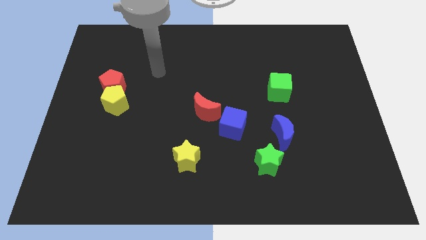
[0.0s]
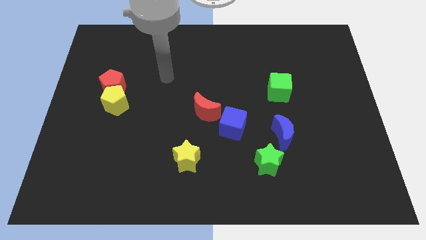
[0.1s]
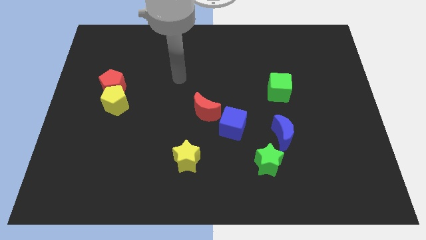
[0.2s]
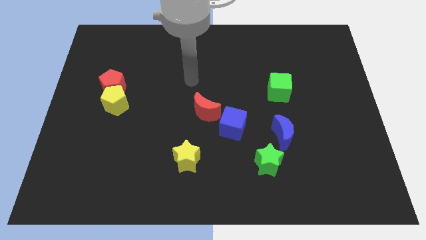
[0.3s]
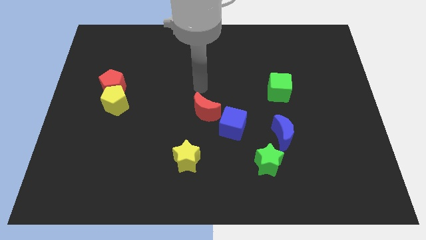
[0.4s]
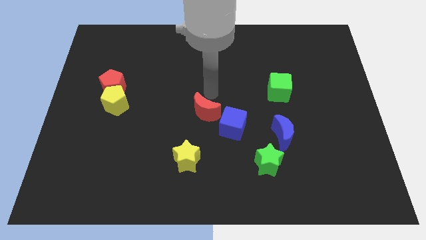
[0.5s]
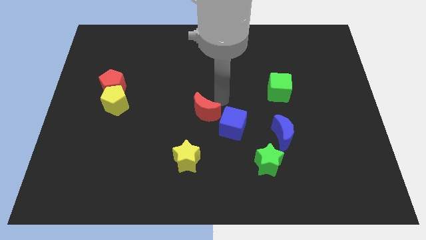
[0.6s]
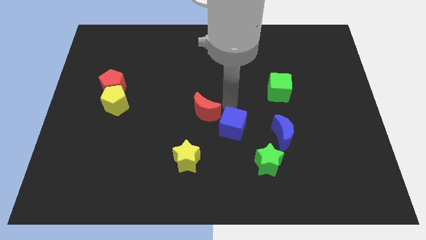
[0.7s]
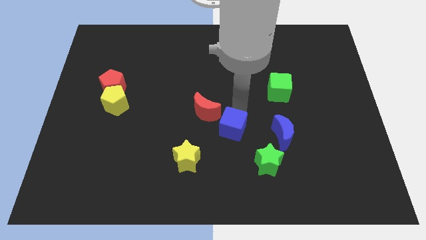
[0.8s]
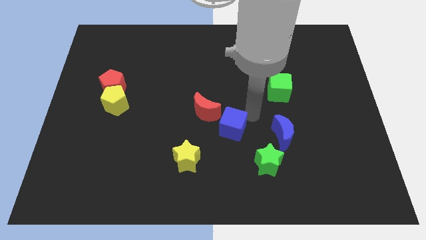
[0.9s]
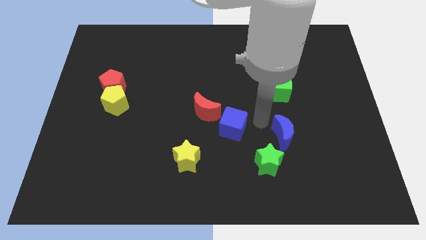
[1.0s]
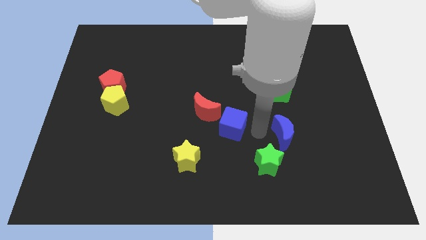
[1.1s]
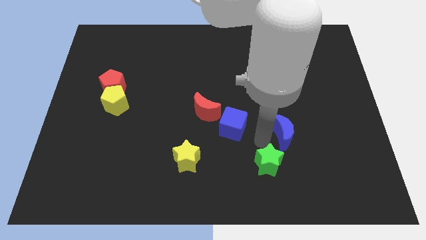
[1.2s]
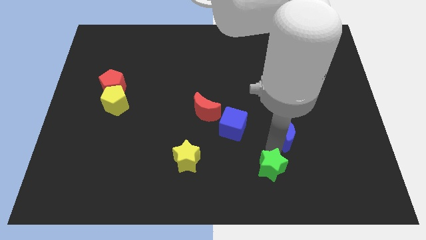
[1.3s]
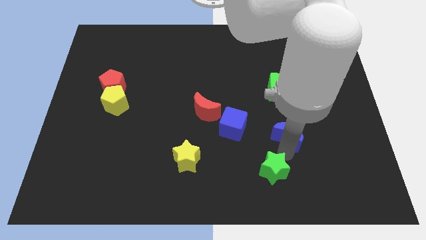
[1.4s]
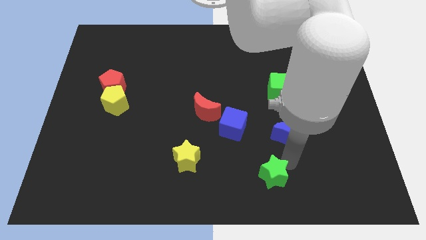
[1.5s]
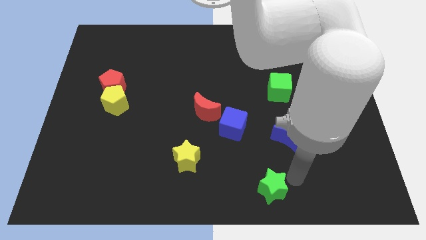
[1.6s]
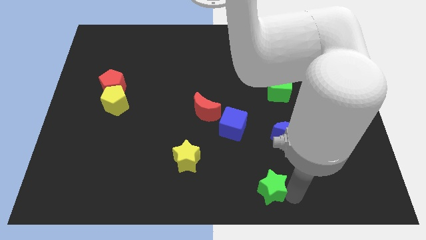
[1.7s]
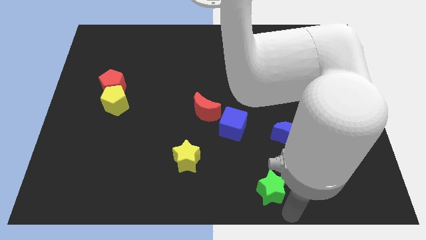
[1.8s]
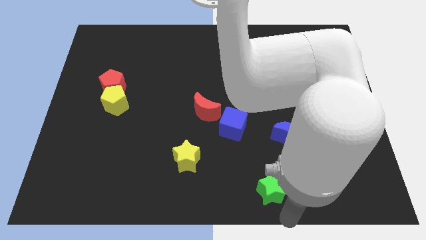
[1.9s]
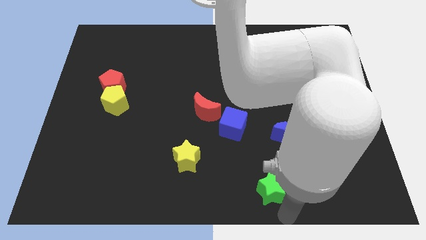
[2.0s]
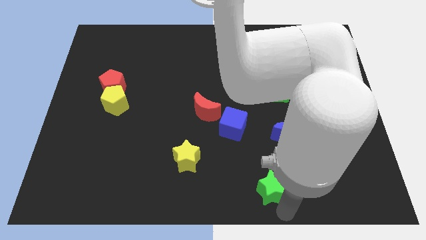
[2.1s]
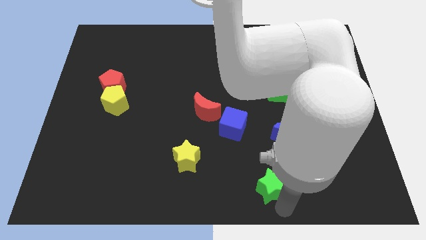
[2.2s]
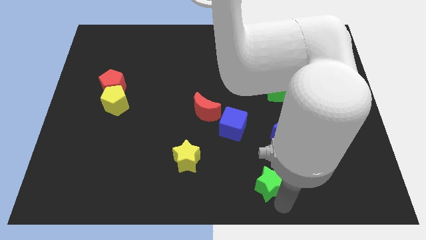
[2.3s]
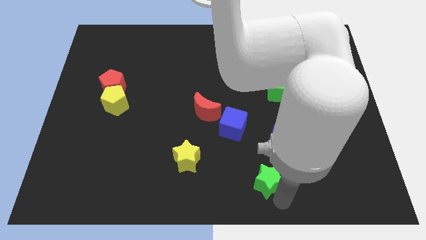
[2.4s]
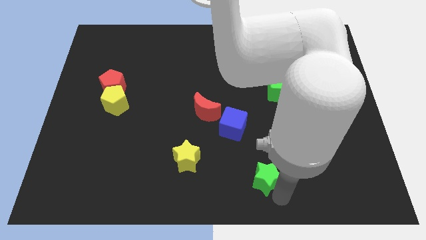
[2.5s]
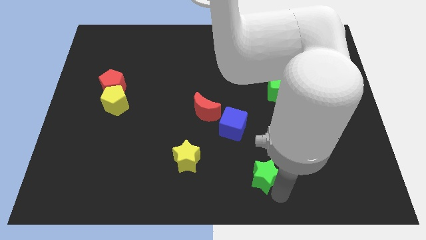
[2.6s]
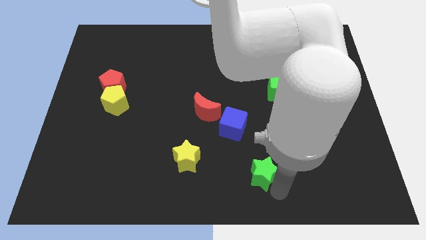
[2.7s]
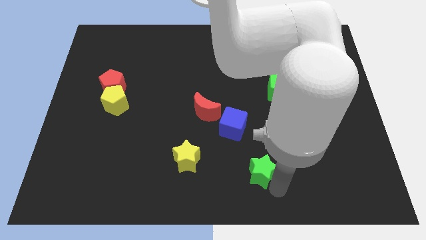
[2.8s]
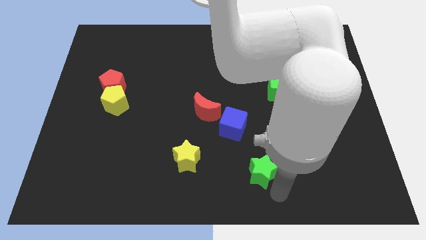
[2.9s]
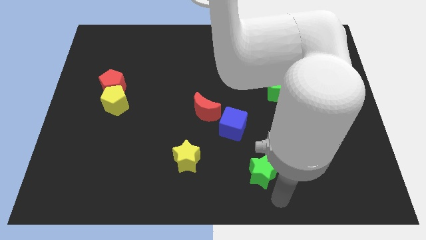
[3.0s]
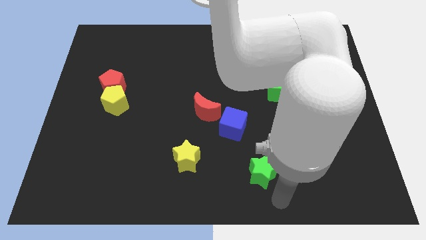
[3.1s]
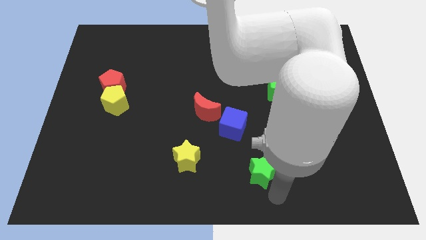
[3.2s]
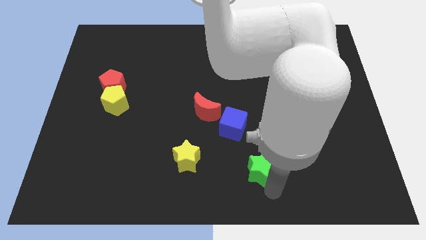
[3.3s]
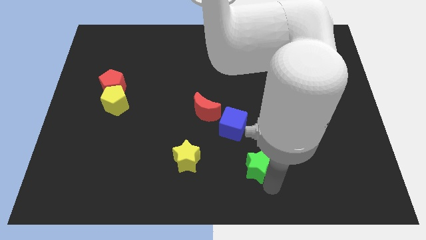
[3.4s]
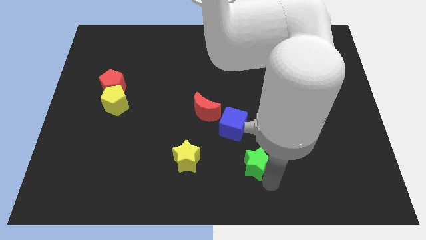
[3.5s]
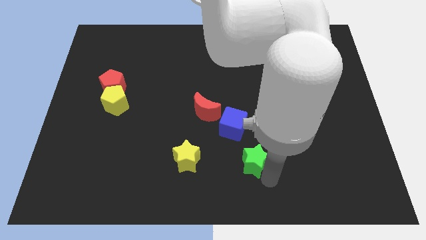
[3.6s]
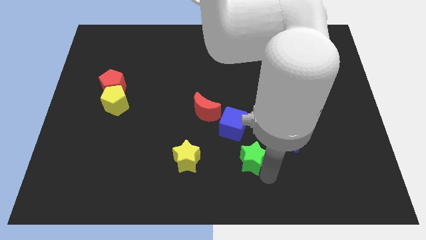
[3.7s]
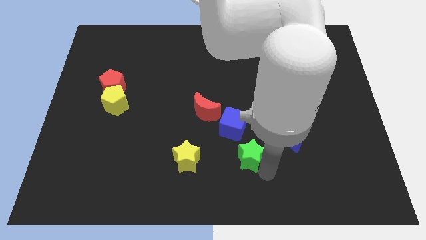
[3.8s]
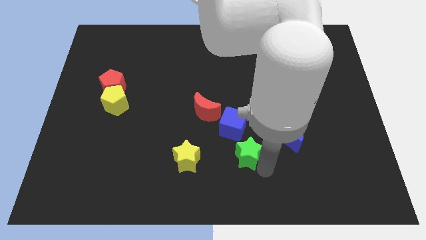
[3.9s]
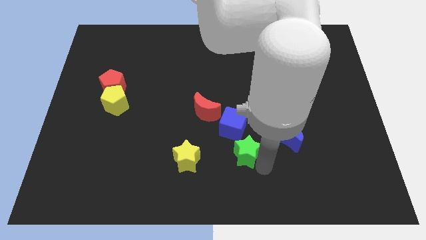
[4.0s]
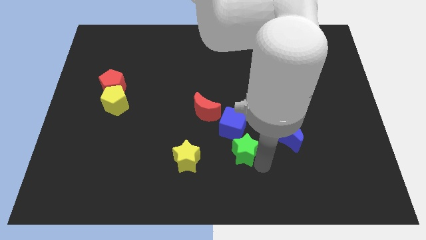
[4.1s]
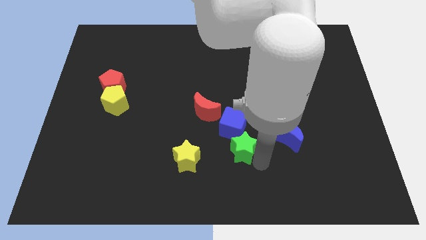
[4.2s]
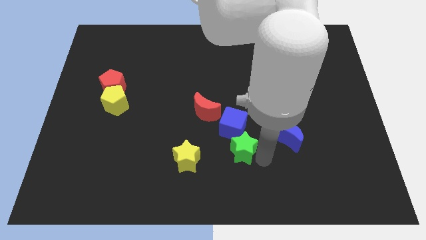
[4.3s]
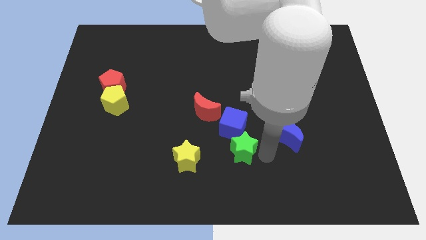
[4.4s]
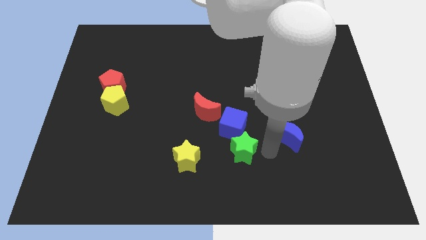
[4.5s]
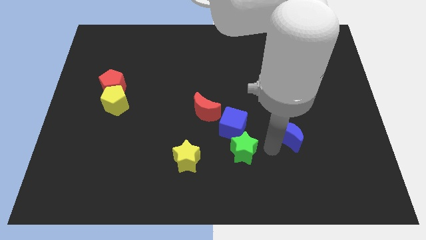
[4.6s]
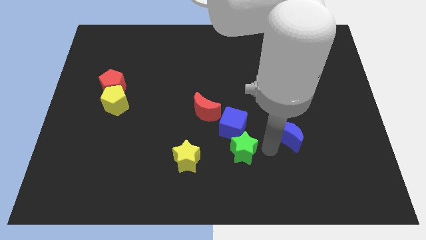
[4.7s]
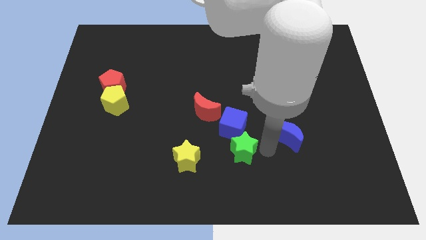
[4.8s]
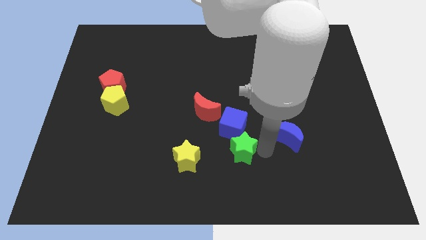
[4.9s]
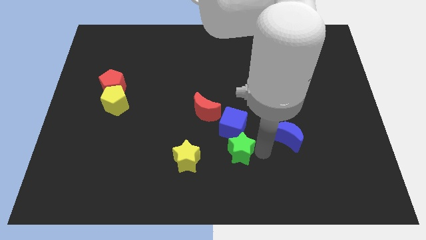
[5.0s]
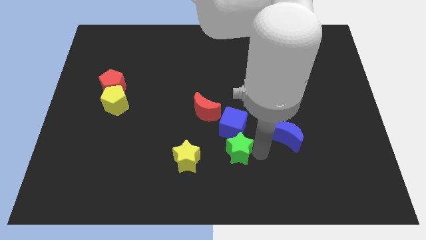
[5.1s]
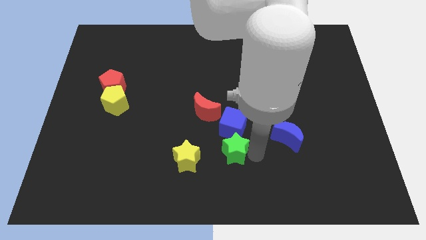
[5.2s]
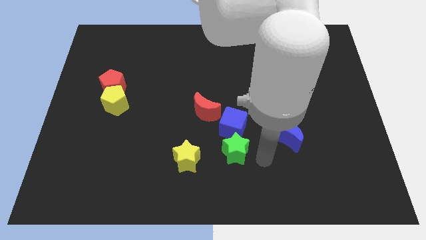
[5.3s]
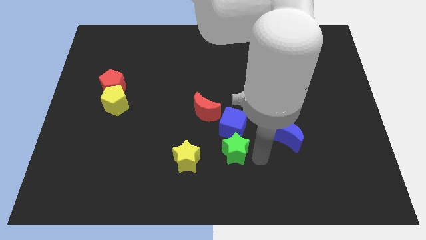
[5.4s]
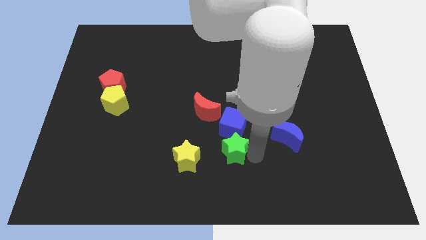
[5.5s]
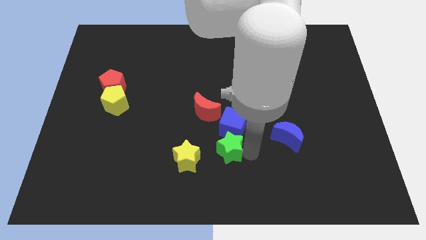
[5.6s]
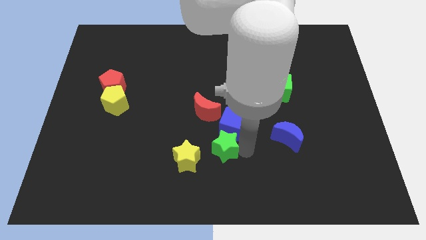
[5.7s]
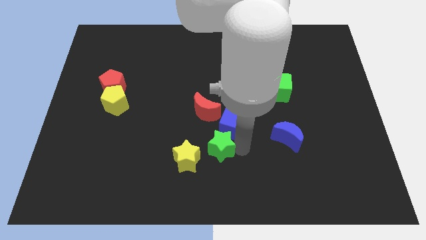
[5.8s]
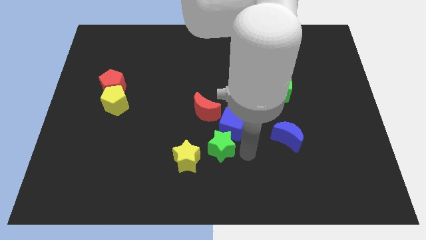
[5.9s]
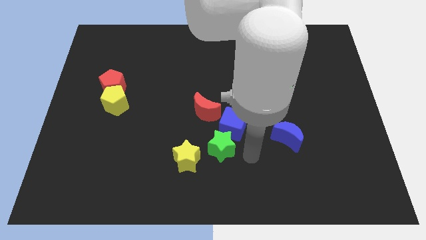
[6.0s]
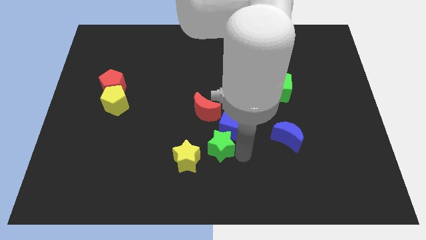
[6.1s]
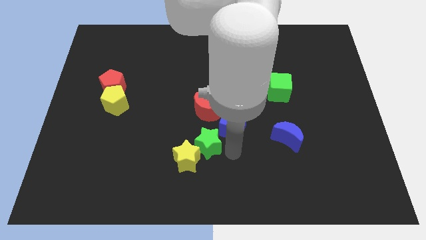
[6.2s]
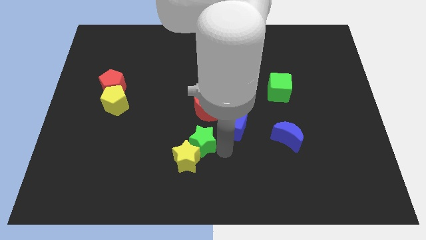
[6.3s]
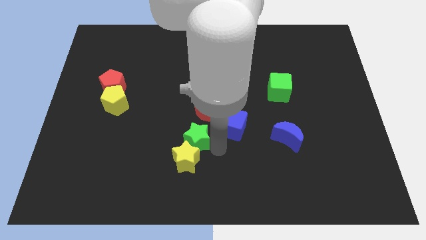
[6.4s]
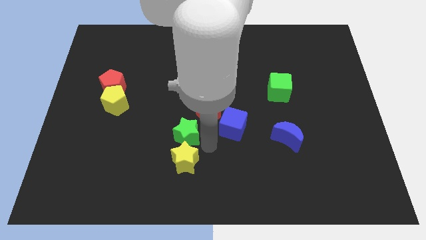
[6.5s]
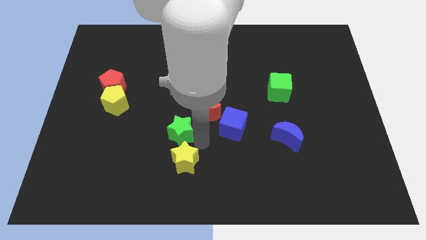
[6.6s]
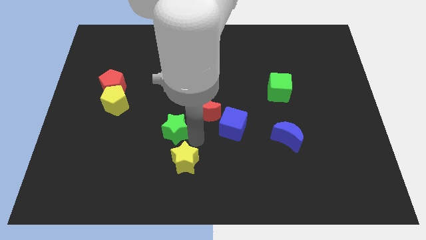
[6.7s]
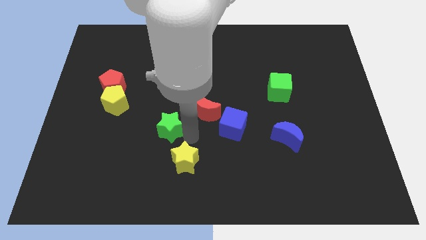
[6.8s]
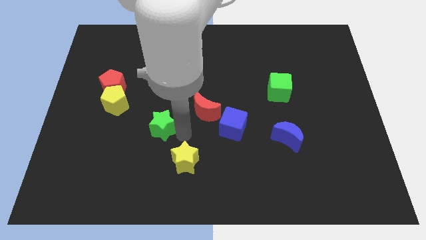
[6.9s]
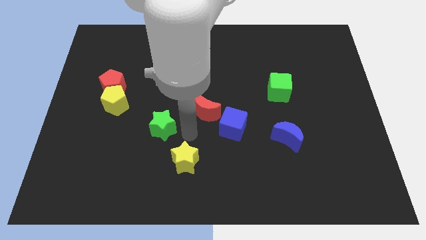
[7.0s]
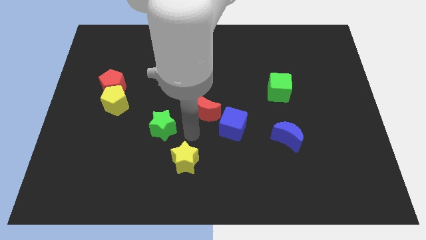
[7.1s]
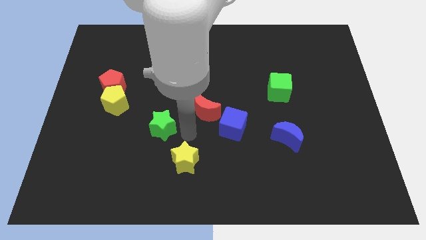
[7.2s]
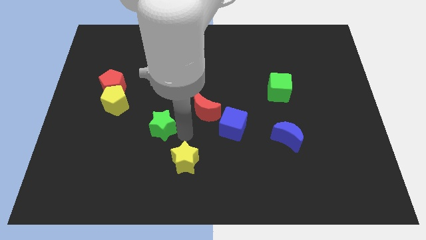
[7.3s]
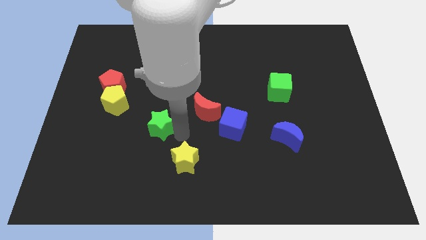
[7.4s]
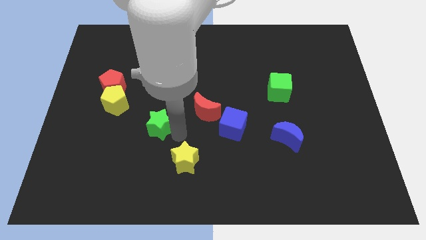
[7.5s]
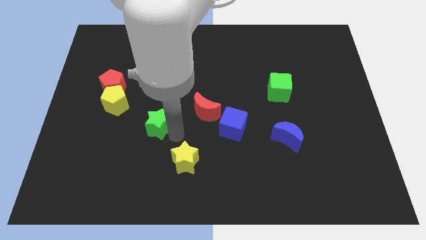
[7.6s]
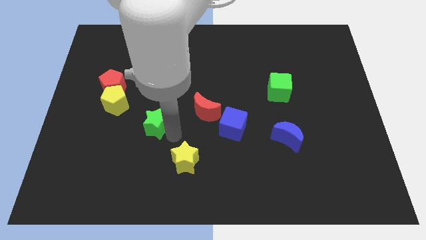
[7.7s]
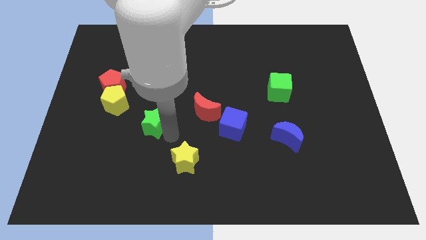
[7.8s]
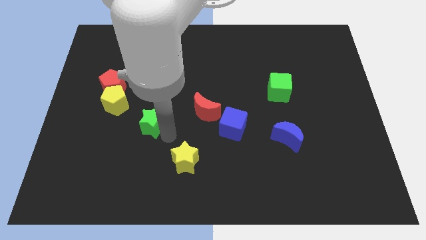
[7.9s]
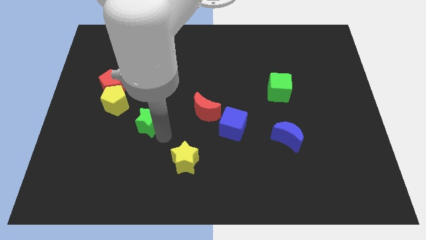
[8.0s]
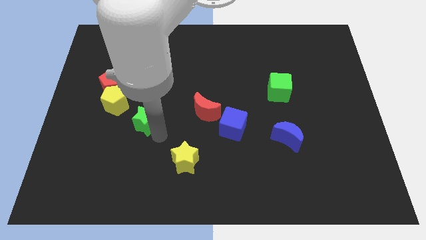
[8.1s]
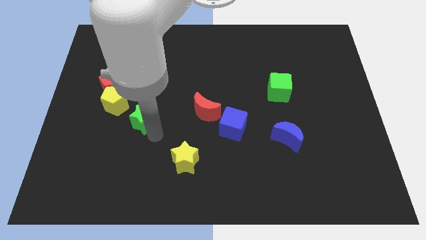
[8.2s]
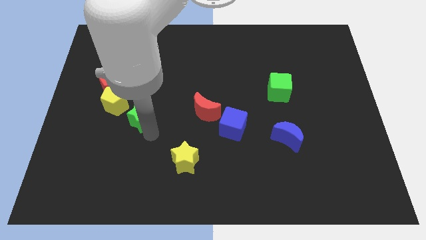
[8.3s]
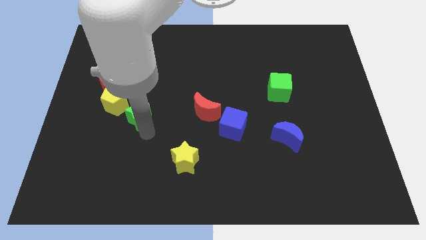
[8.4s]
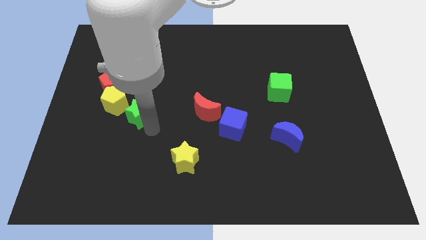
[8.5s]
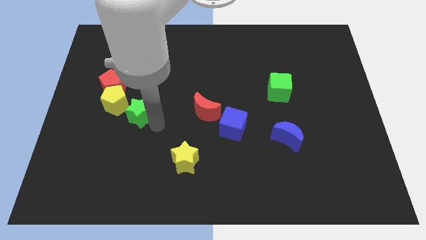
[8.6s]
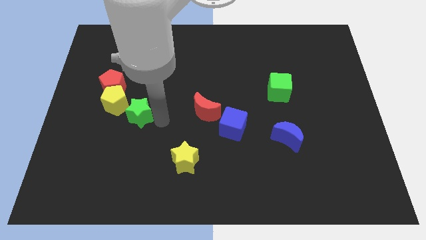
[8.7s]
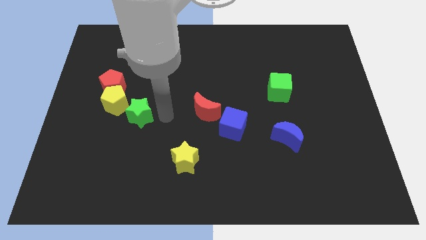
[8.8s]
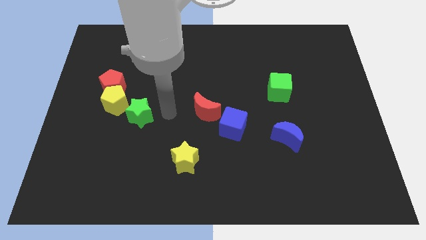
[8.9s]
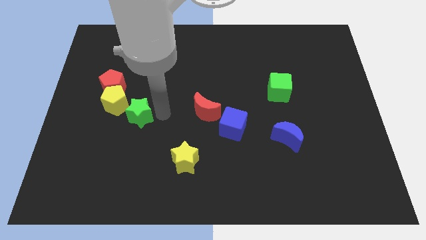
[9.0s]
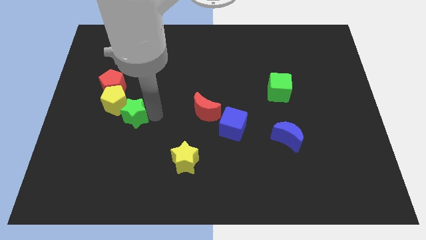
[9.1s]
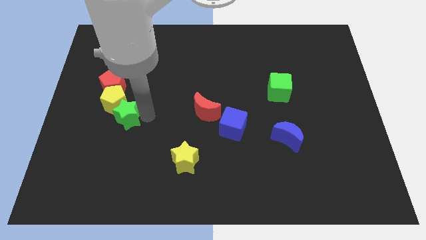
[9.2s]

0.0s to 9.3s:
push the green star to the bottom side of the red pentagon
